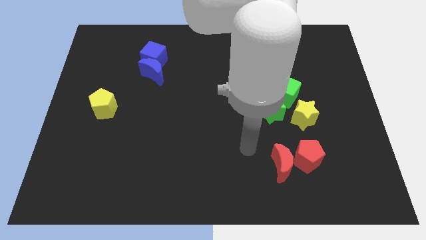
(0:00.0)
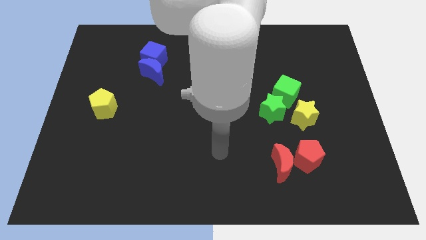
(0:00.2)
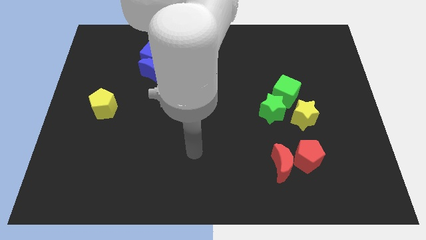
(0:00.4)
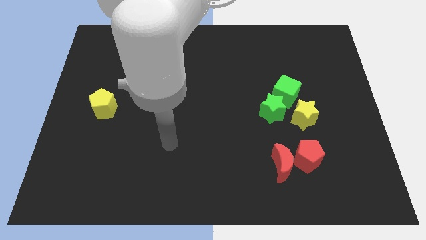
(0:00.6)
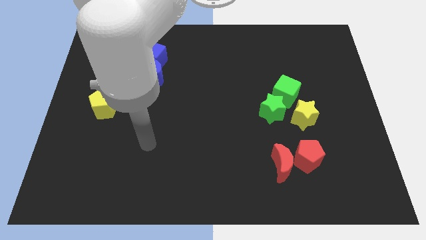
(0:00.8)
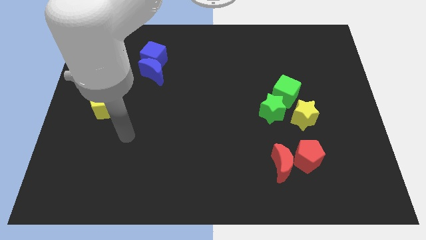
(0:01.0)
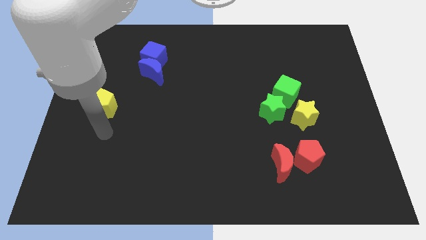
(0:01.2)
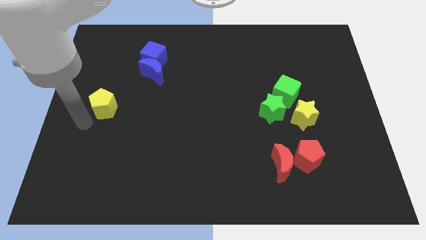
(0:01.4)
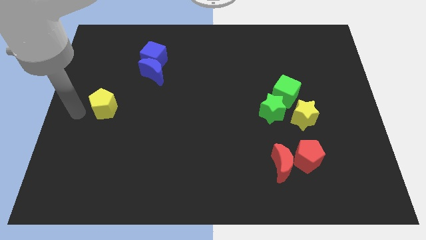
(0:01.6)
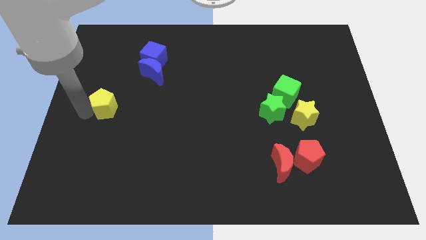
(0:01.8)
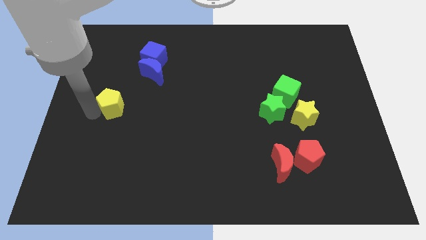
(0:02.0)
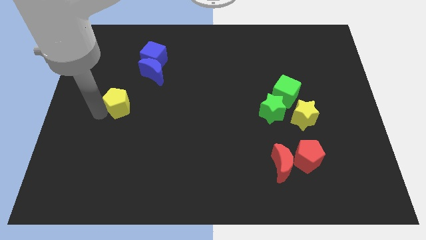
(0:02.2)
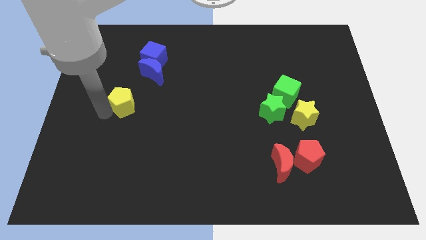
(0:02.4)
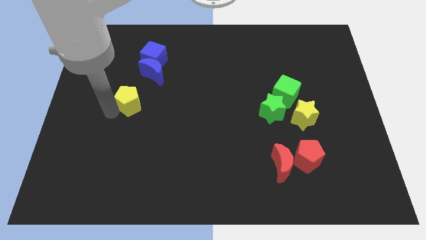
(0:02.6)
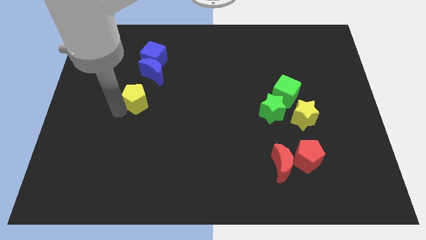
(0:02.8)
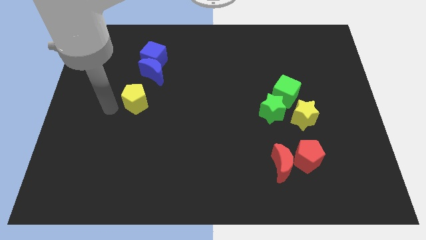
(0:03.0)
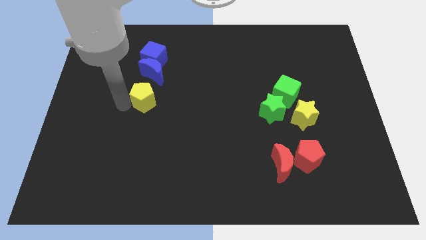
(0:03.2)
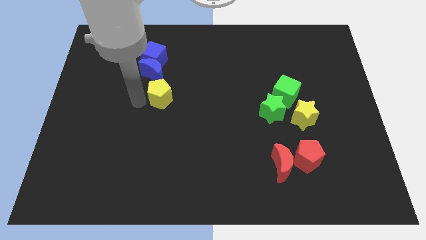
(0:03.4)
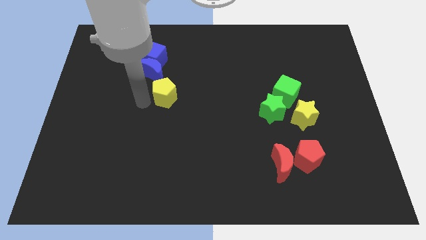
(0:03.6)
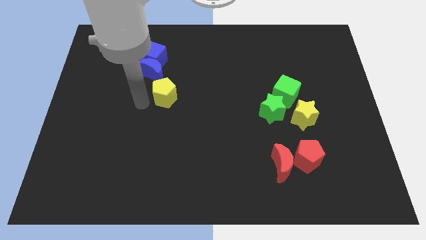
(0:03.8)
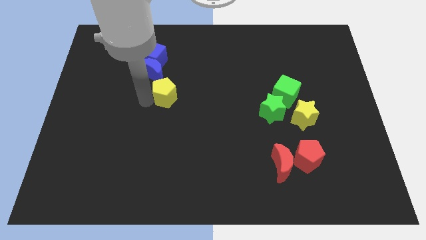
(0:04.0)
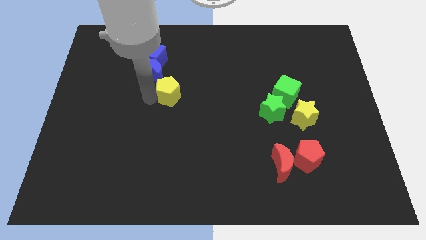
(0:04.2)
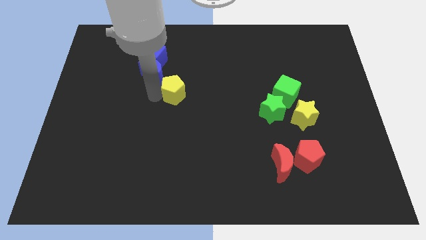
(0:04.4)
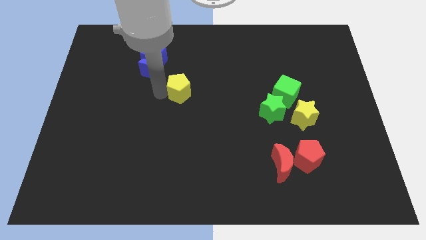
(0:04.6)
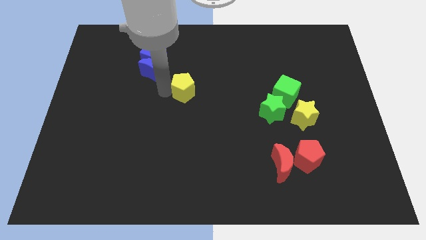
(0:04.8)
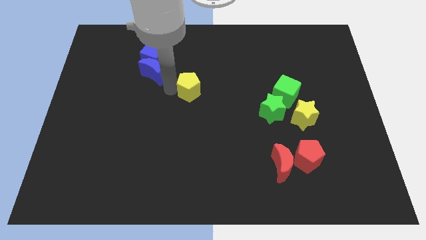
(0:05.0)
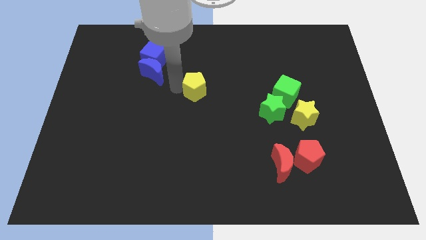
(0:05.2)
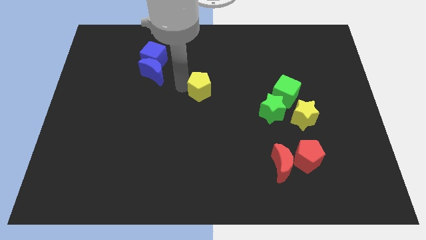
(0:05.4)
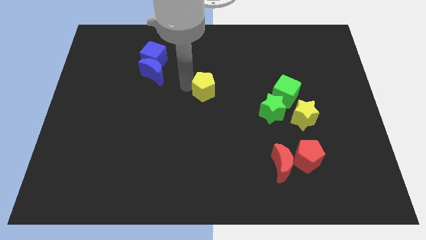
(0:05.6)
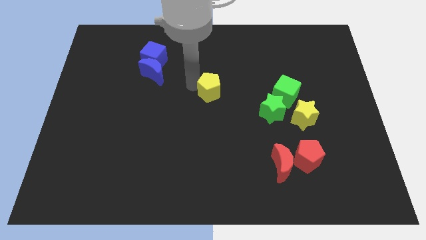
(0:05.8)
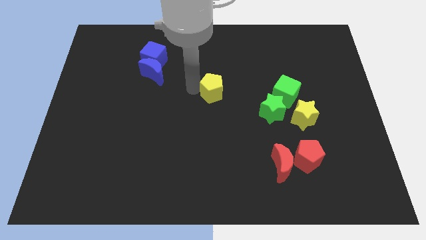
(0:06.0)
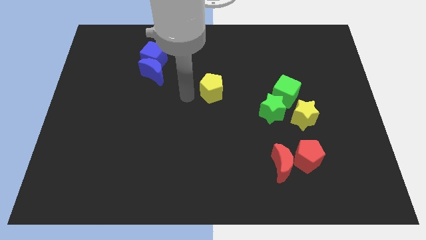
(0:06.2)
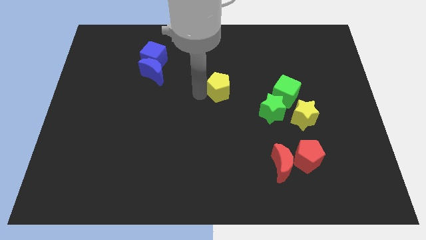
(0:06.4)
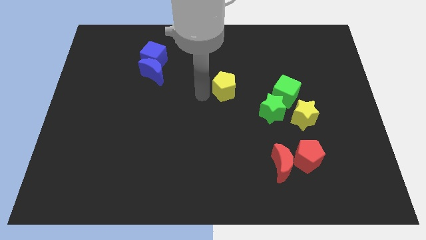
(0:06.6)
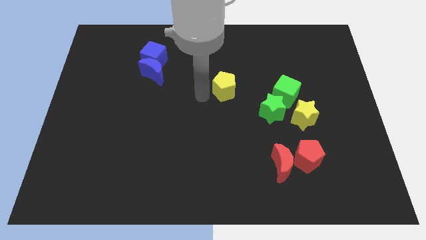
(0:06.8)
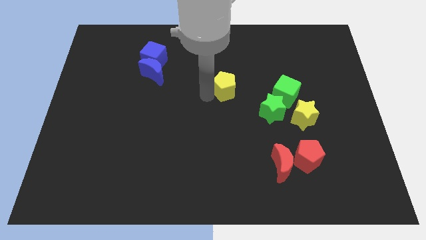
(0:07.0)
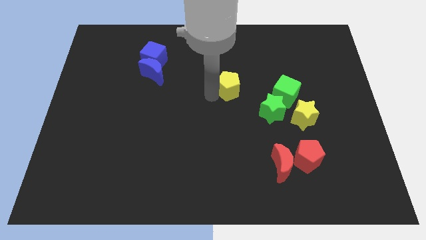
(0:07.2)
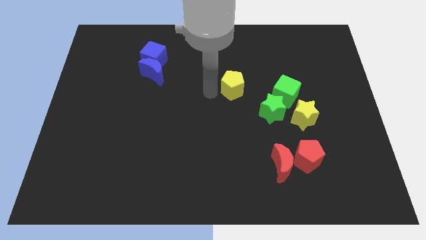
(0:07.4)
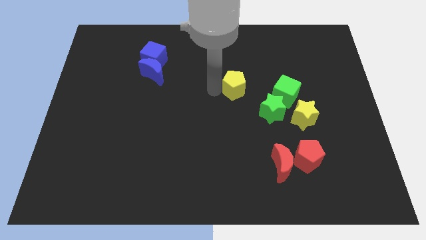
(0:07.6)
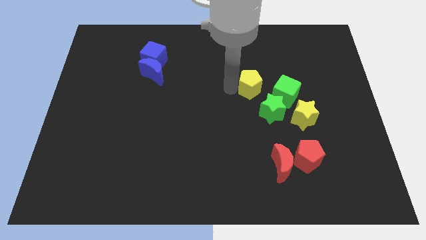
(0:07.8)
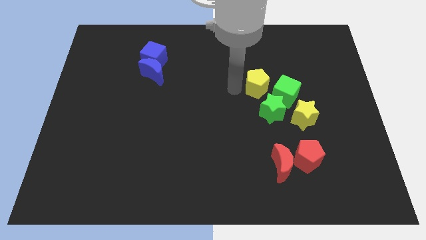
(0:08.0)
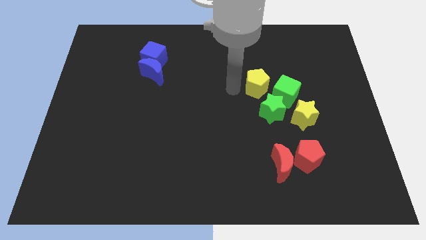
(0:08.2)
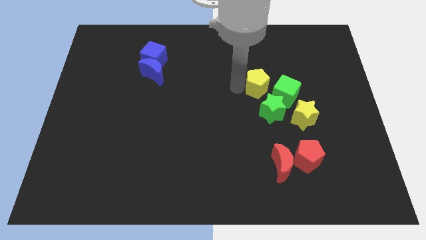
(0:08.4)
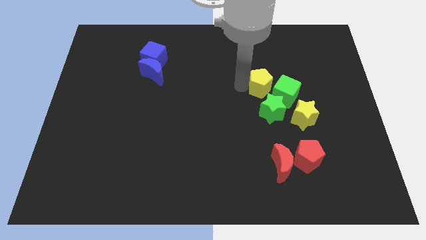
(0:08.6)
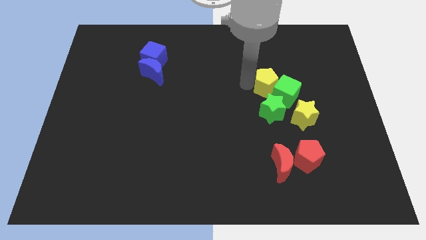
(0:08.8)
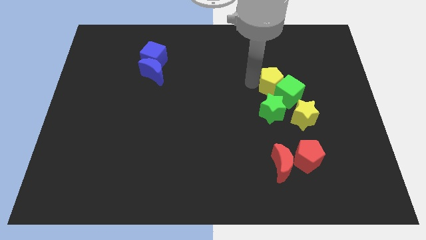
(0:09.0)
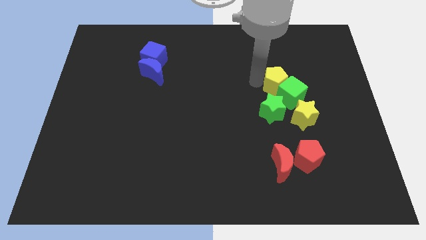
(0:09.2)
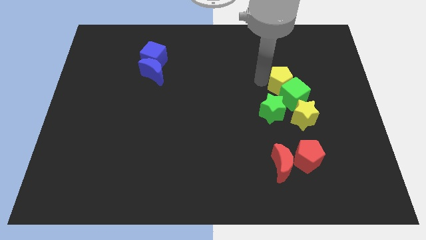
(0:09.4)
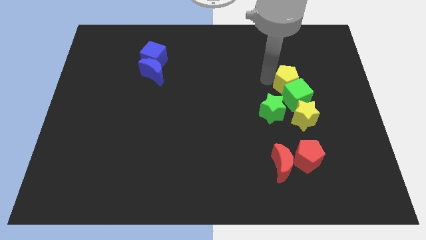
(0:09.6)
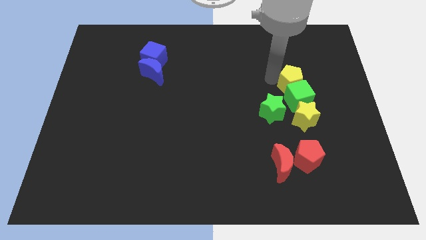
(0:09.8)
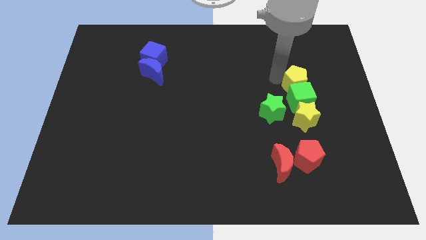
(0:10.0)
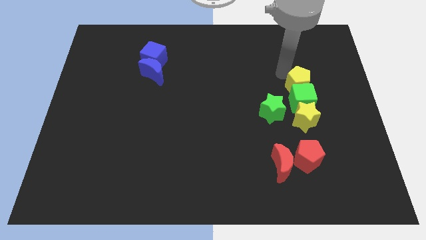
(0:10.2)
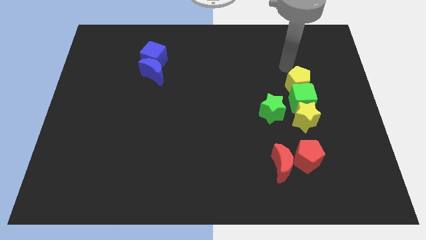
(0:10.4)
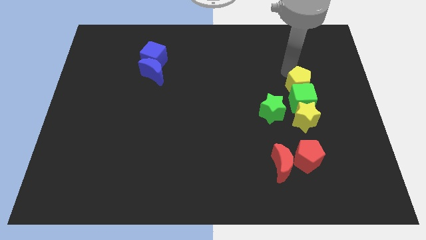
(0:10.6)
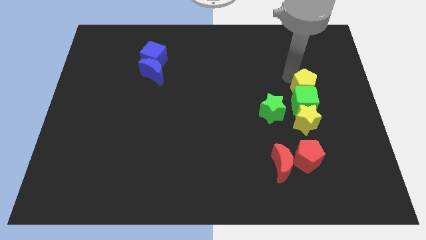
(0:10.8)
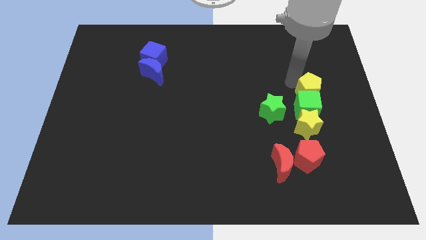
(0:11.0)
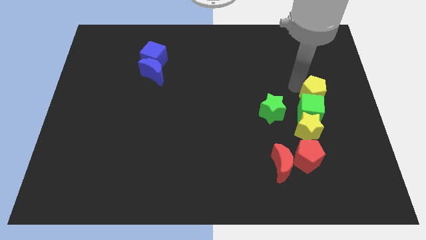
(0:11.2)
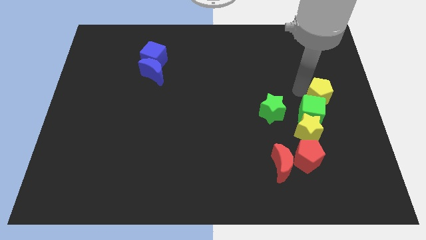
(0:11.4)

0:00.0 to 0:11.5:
slide the yellow pentagon just right of the green star

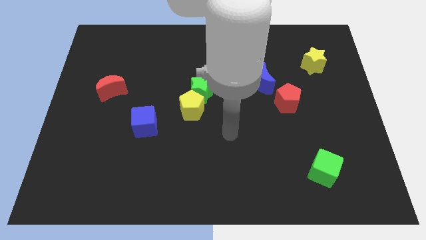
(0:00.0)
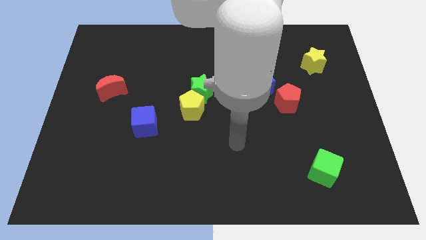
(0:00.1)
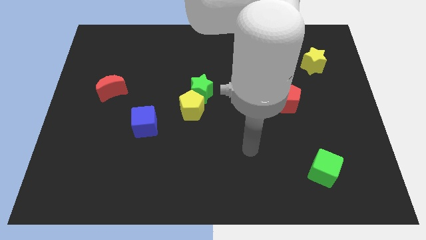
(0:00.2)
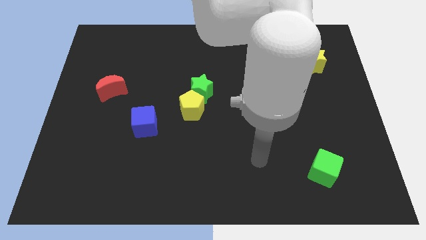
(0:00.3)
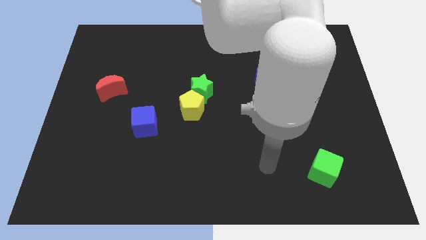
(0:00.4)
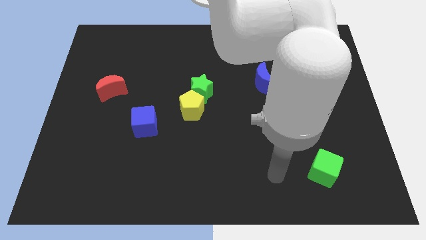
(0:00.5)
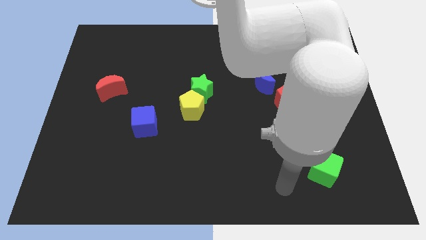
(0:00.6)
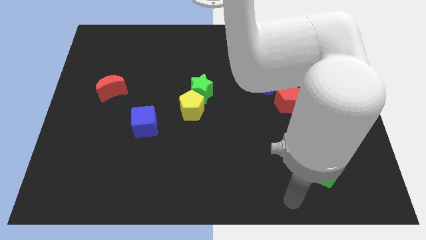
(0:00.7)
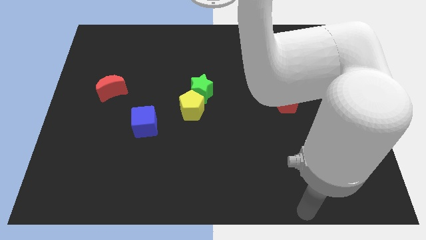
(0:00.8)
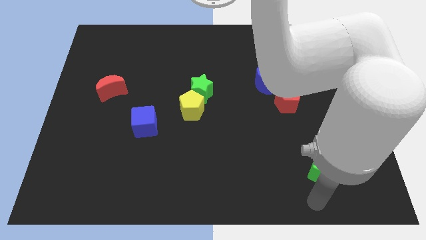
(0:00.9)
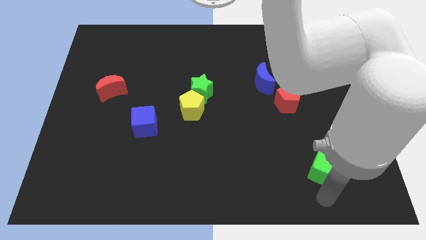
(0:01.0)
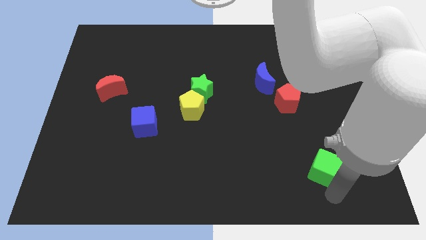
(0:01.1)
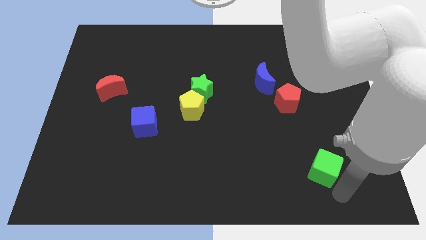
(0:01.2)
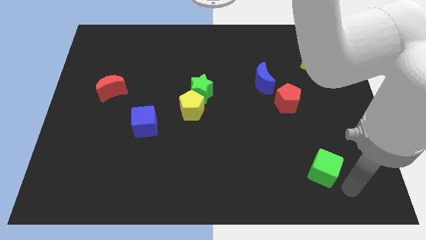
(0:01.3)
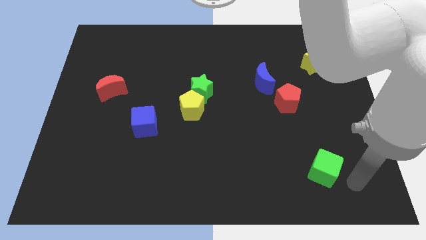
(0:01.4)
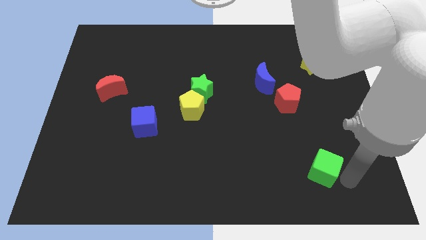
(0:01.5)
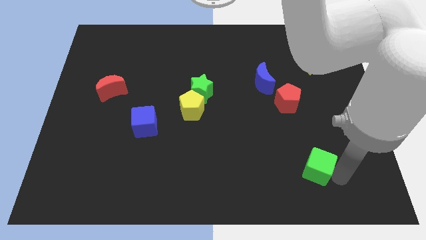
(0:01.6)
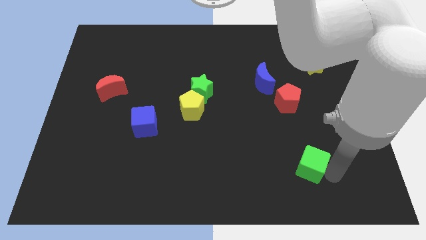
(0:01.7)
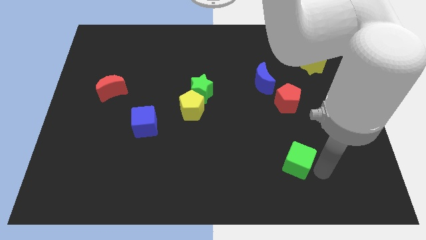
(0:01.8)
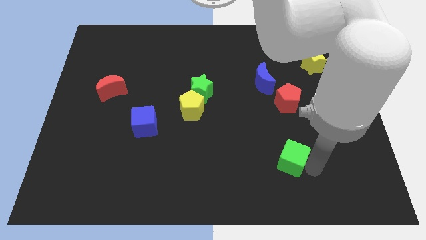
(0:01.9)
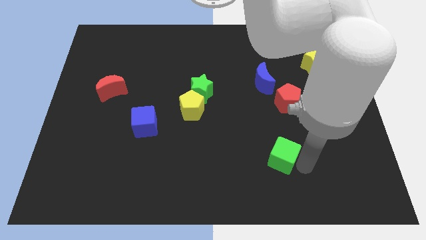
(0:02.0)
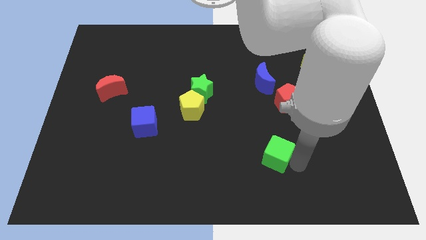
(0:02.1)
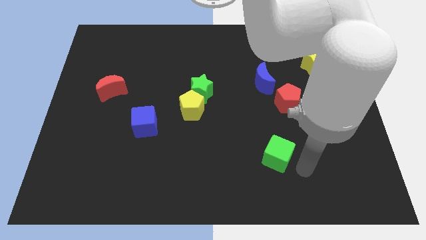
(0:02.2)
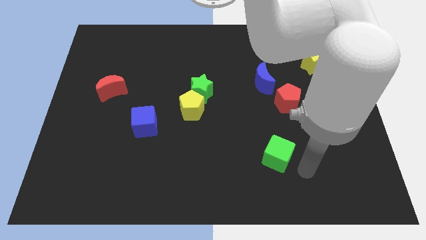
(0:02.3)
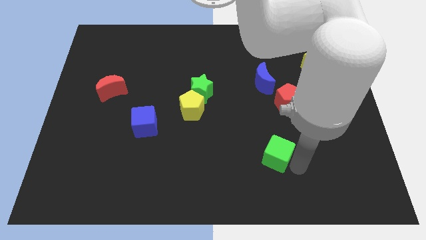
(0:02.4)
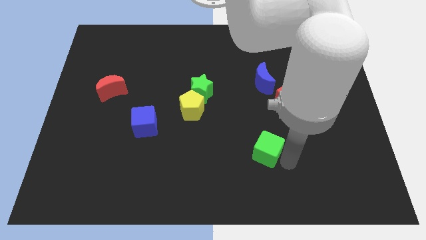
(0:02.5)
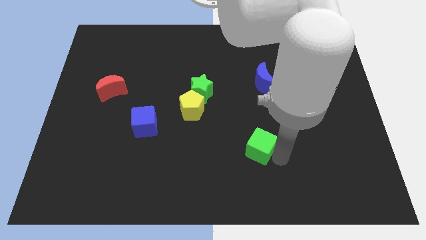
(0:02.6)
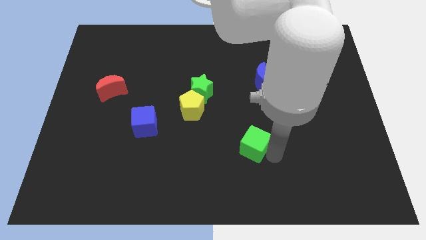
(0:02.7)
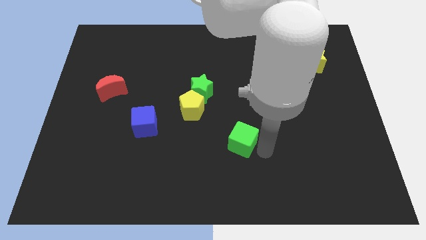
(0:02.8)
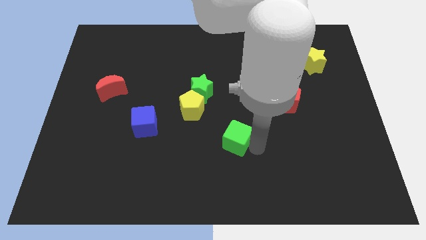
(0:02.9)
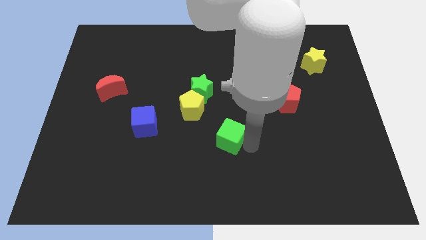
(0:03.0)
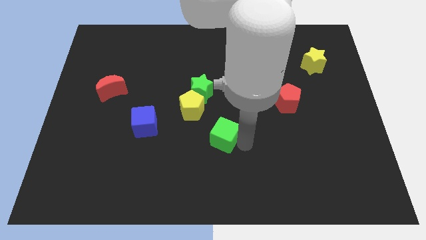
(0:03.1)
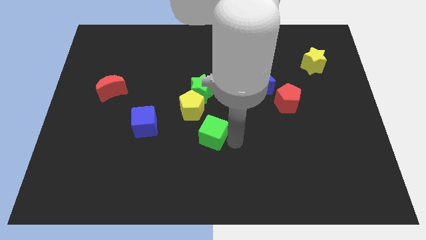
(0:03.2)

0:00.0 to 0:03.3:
slide the green cube to the right side of the blue cube
